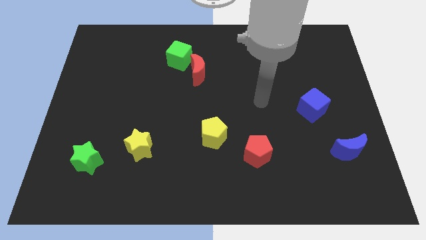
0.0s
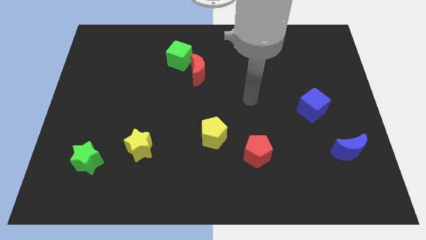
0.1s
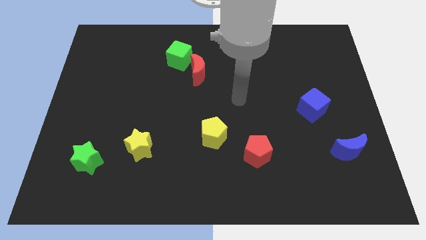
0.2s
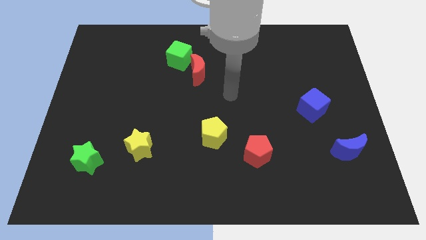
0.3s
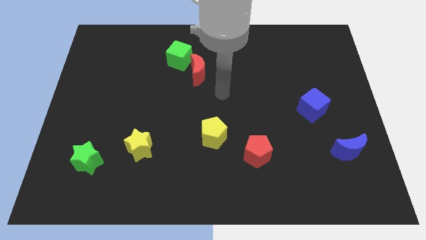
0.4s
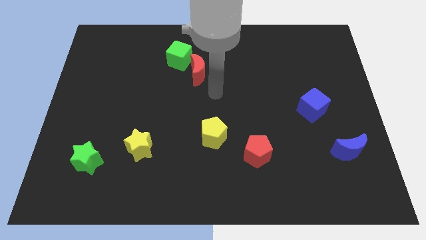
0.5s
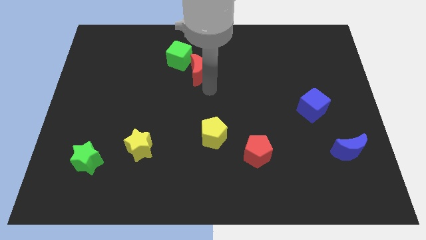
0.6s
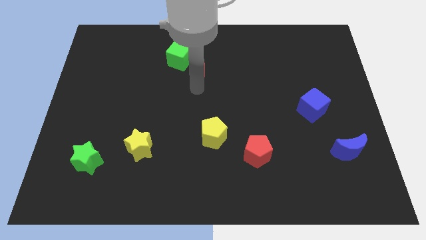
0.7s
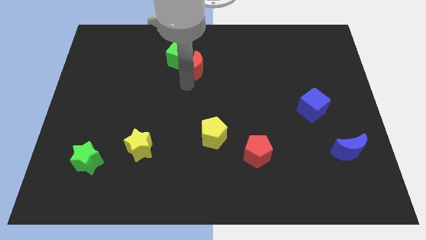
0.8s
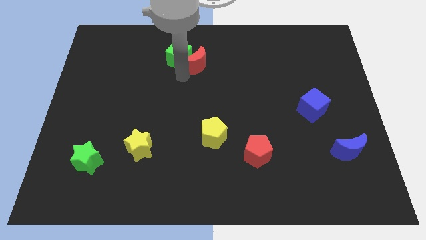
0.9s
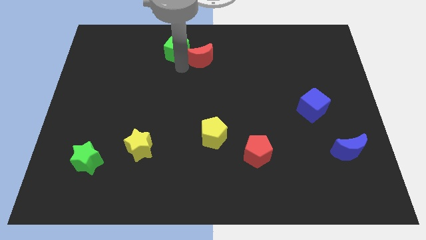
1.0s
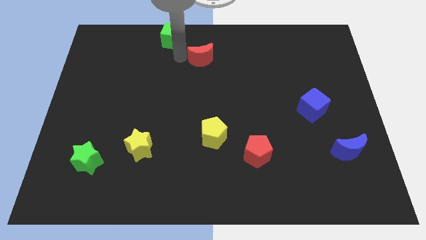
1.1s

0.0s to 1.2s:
pull the red moon apart from the green cube

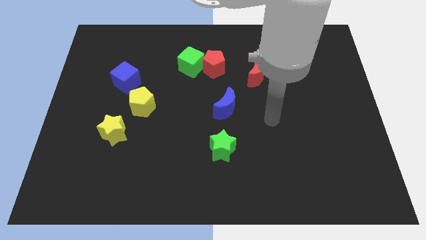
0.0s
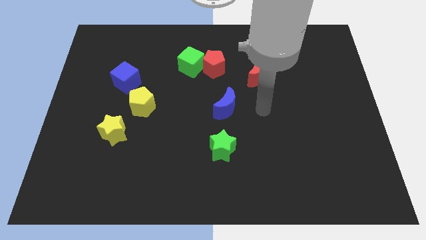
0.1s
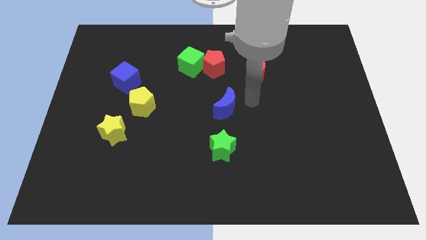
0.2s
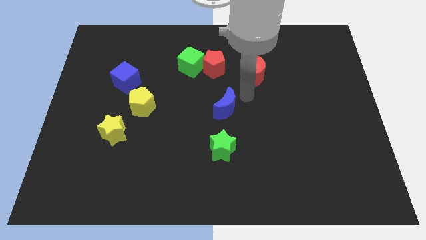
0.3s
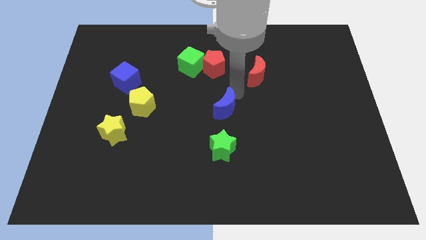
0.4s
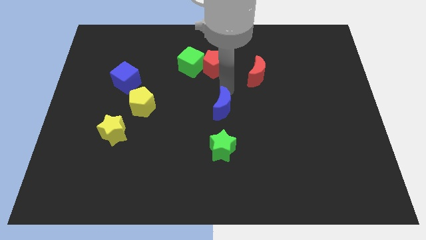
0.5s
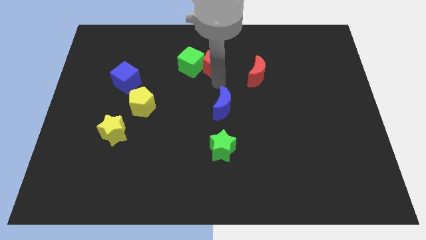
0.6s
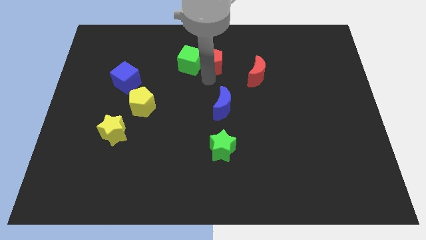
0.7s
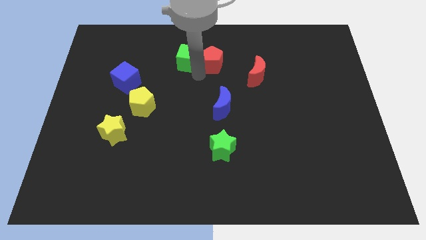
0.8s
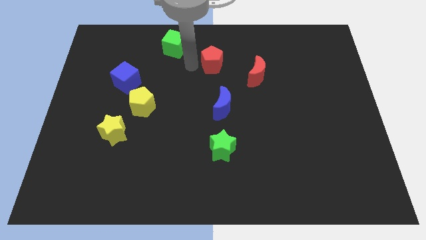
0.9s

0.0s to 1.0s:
pull the red pentagon apart from the green cube

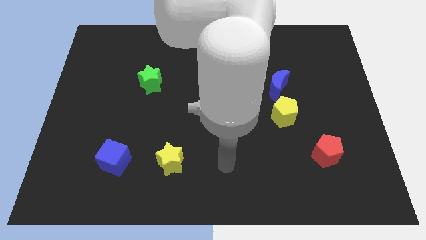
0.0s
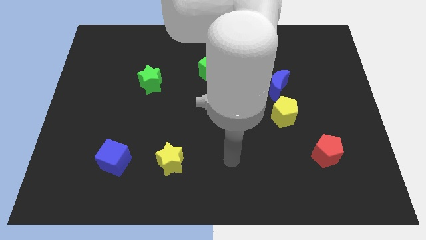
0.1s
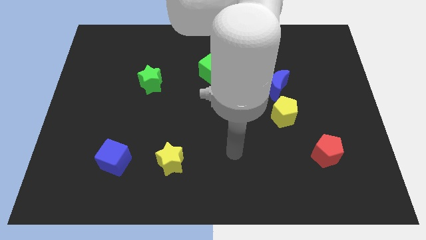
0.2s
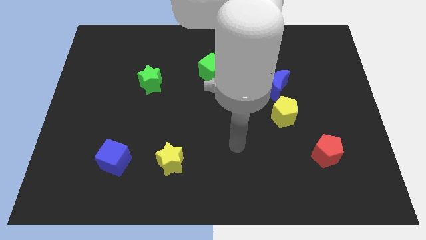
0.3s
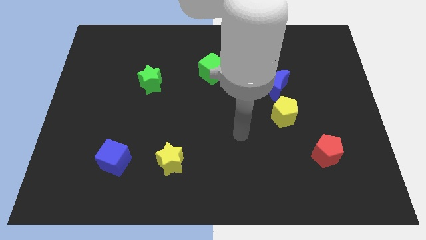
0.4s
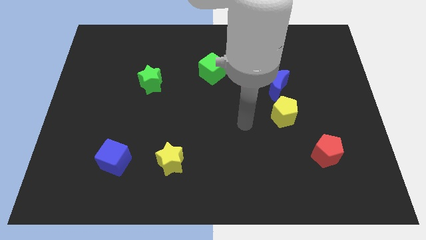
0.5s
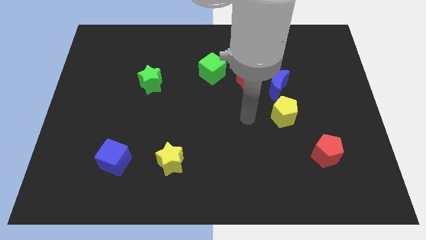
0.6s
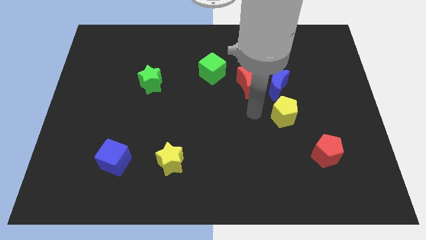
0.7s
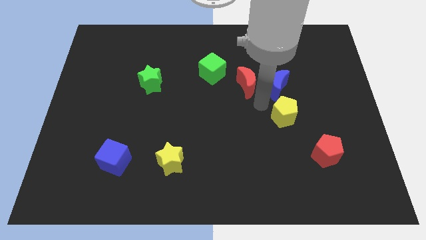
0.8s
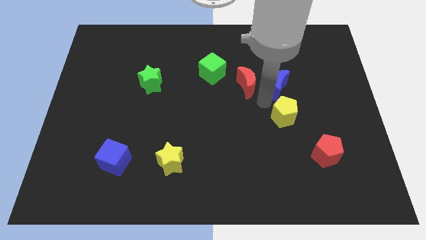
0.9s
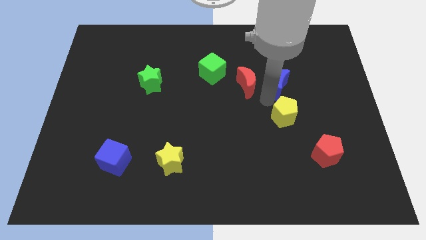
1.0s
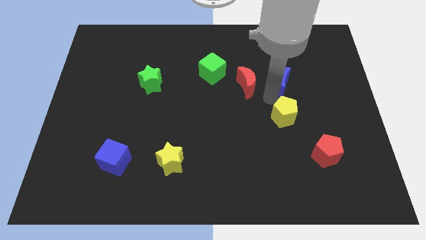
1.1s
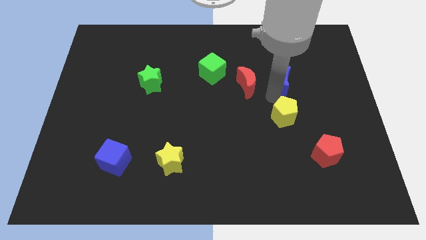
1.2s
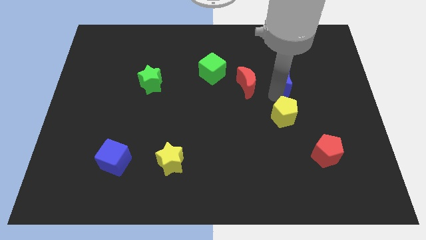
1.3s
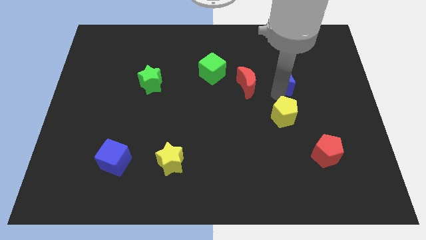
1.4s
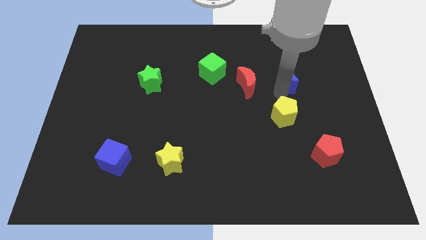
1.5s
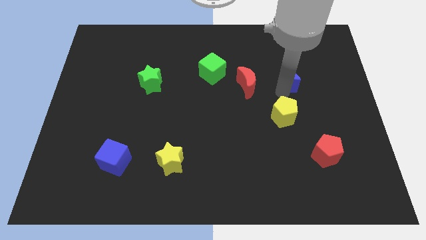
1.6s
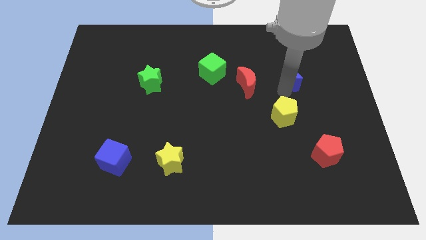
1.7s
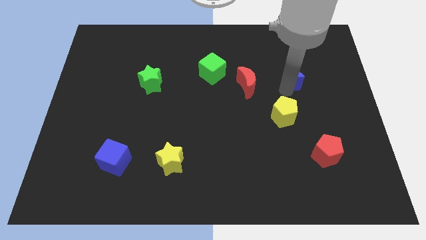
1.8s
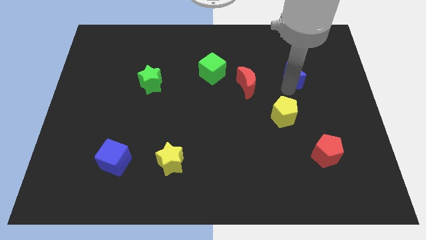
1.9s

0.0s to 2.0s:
pull the blue moon apart from the red moon and yellow pentagon

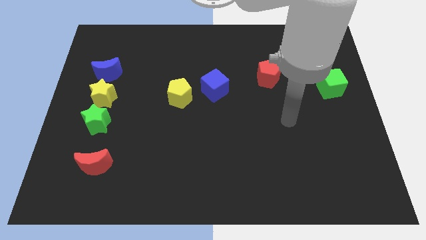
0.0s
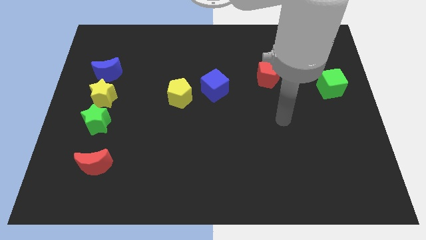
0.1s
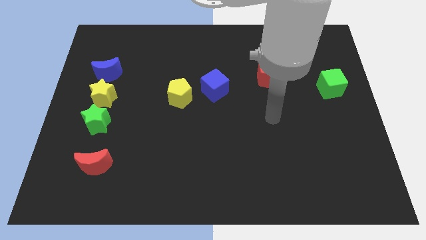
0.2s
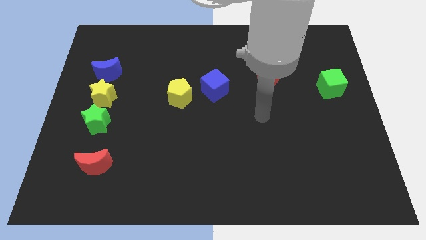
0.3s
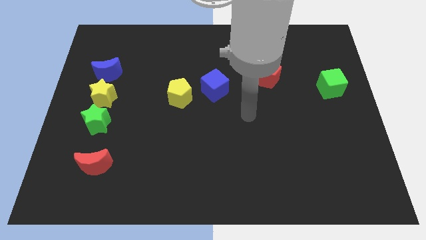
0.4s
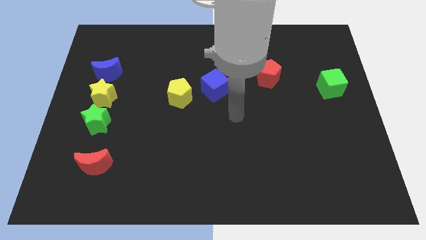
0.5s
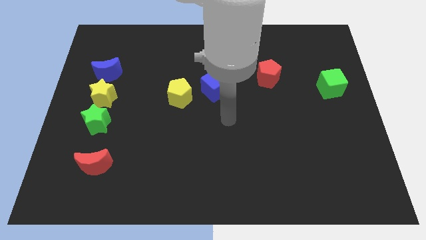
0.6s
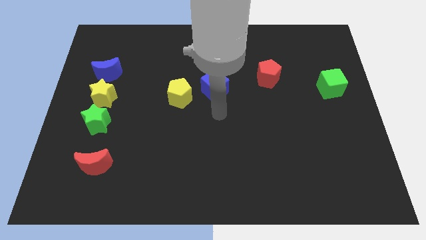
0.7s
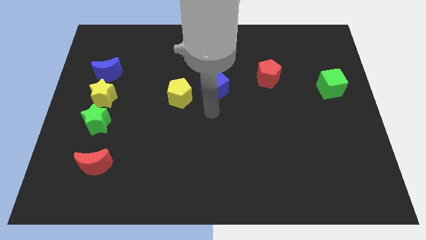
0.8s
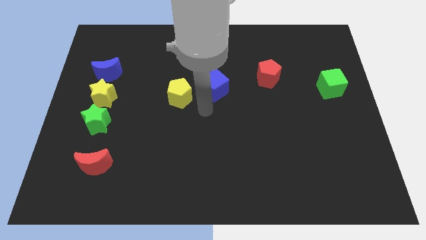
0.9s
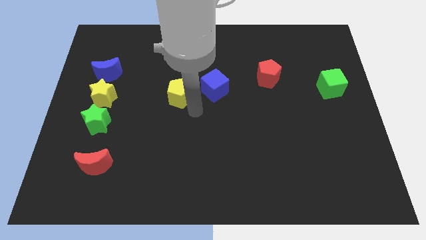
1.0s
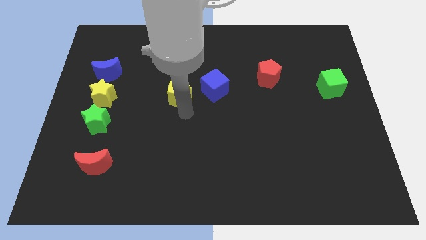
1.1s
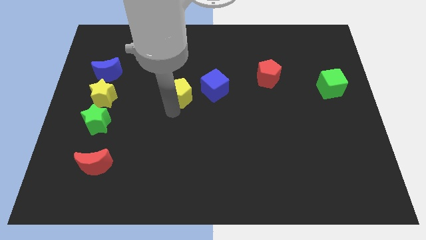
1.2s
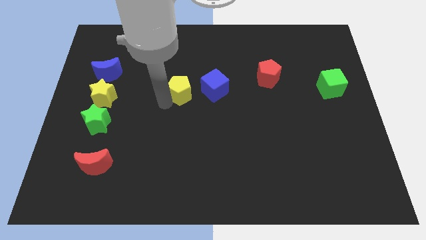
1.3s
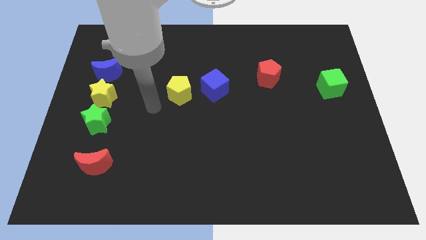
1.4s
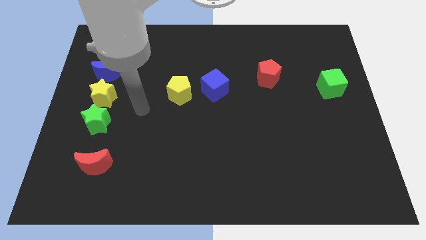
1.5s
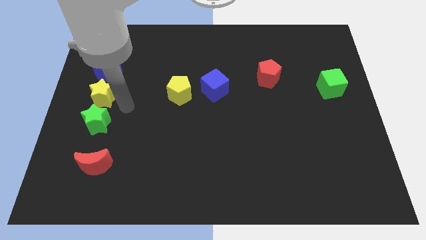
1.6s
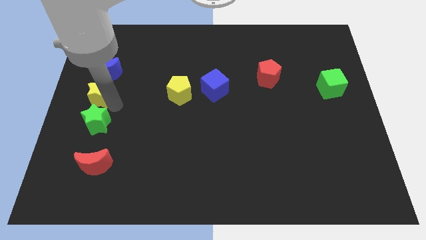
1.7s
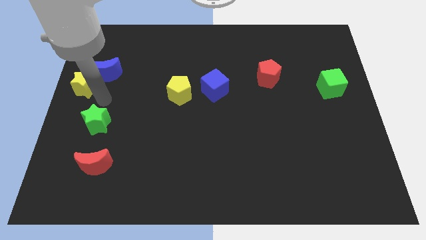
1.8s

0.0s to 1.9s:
pull the green star apart from the yellow star

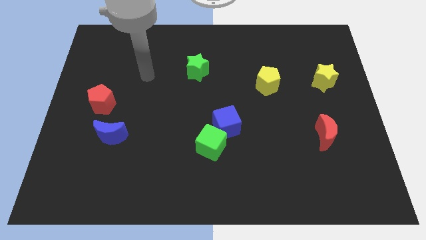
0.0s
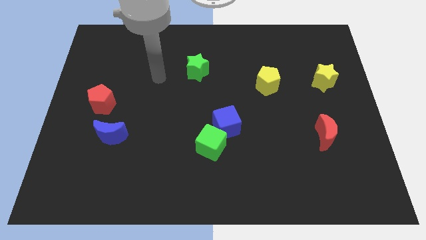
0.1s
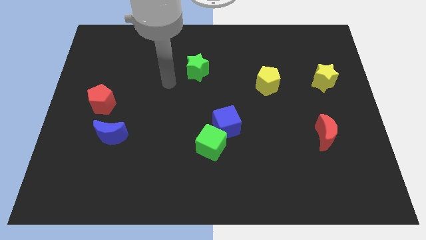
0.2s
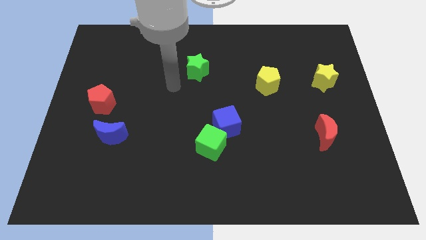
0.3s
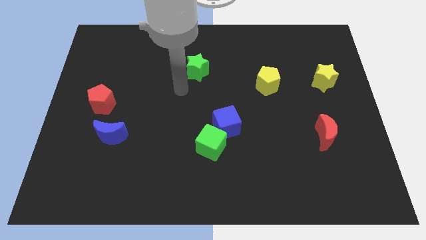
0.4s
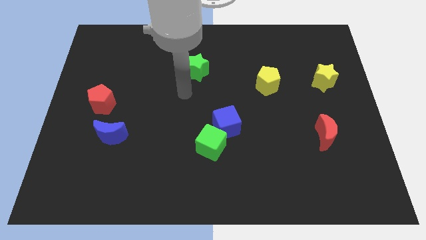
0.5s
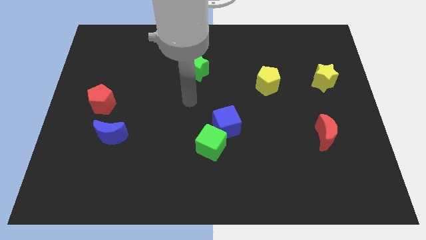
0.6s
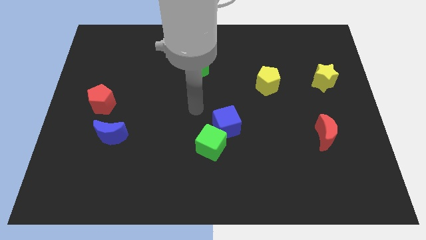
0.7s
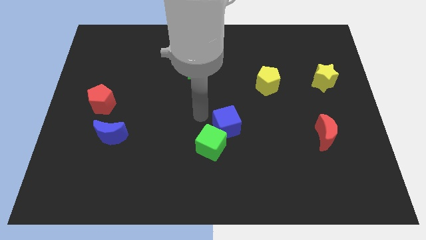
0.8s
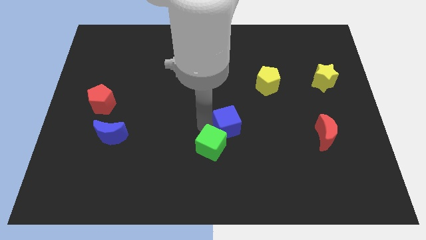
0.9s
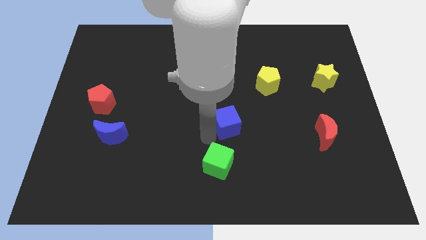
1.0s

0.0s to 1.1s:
pull the blue cube apart from the green cube

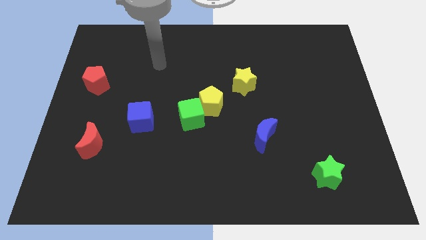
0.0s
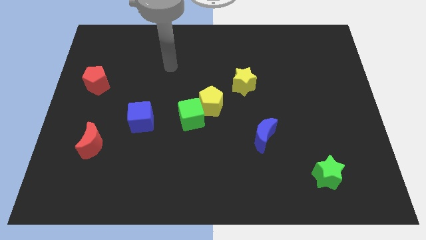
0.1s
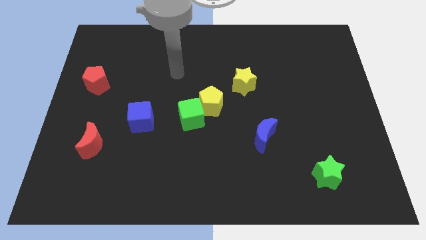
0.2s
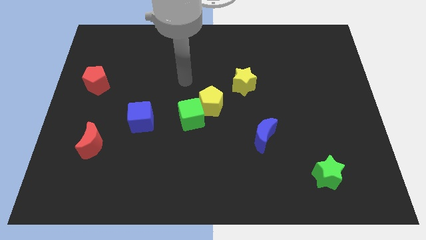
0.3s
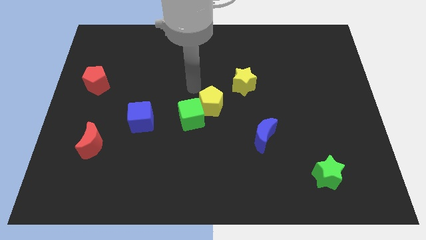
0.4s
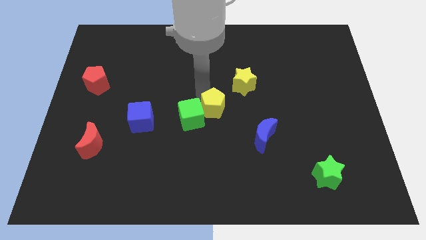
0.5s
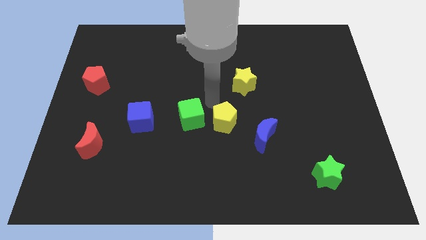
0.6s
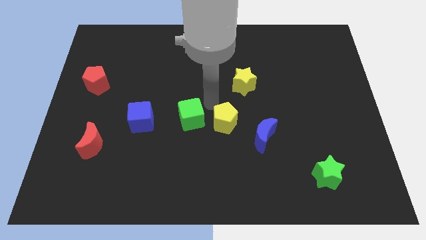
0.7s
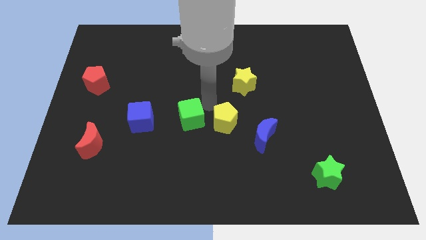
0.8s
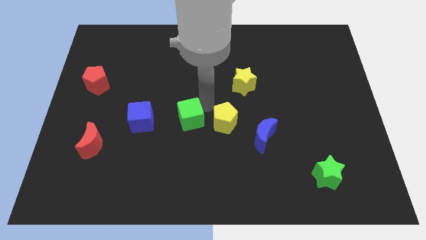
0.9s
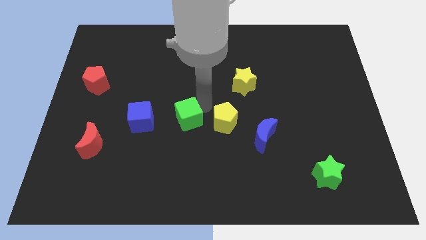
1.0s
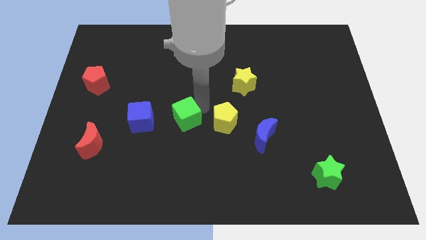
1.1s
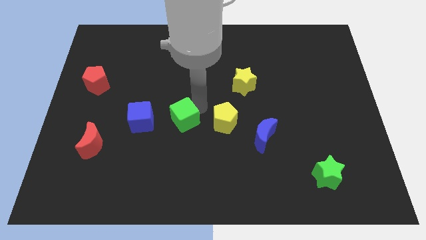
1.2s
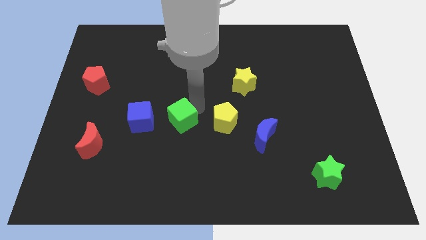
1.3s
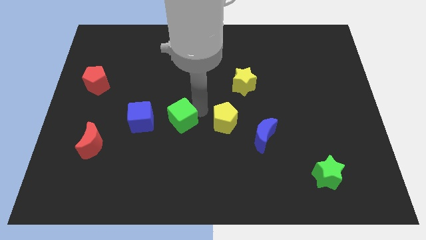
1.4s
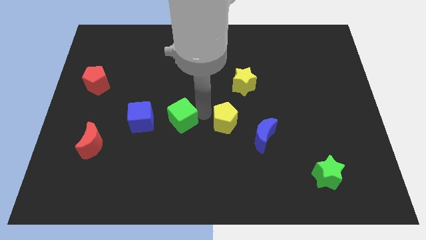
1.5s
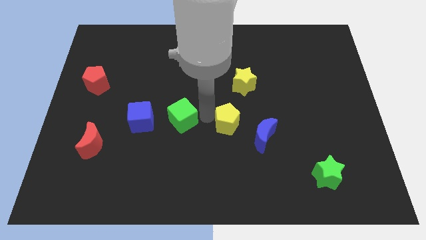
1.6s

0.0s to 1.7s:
pull the green cube apart from the yellow pentagon

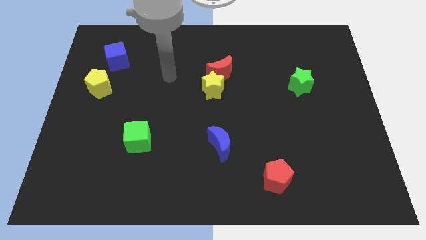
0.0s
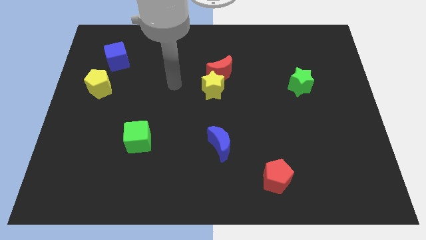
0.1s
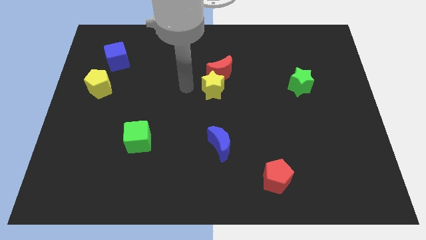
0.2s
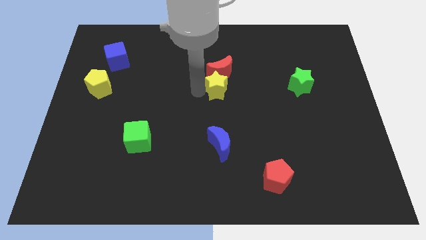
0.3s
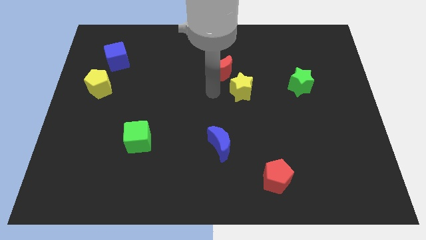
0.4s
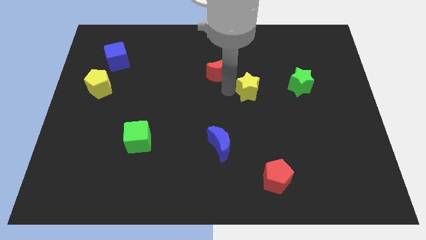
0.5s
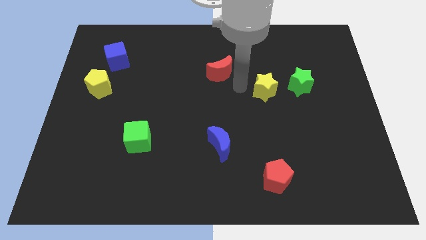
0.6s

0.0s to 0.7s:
separate the red moon from the yellow star
